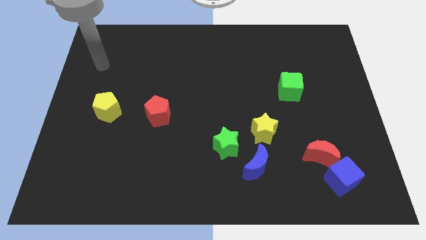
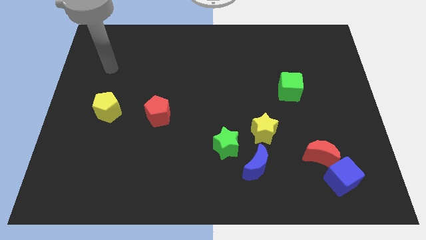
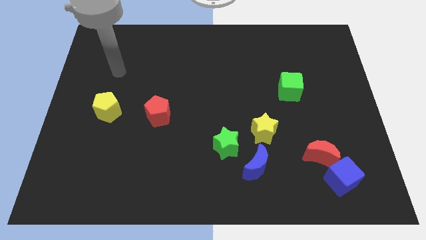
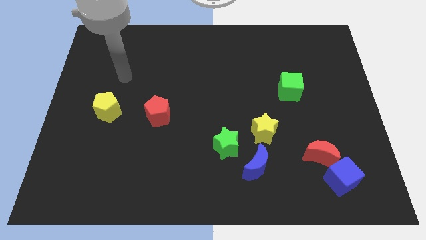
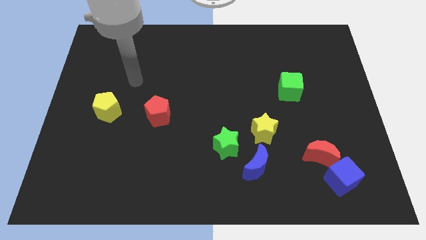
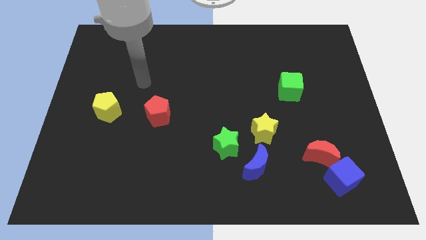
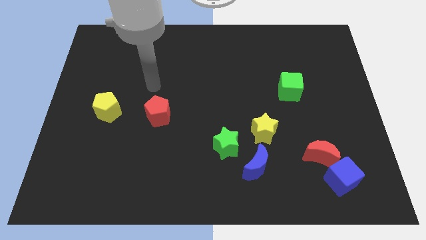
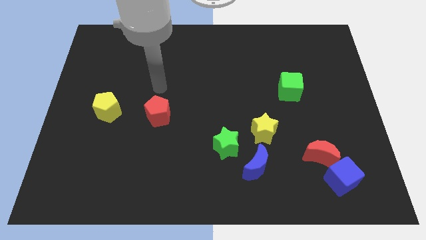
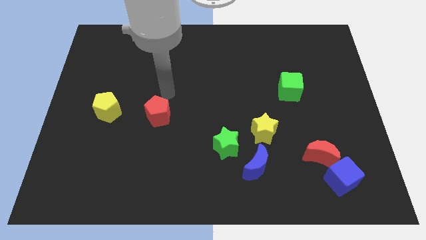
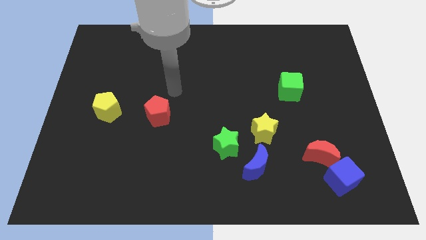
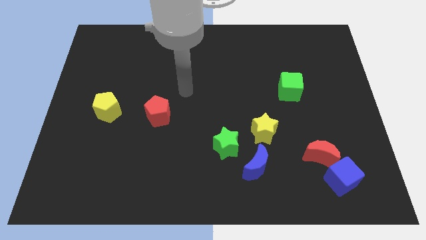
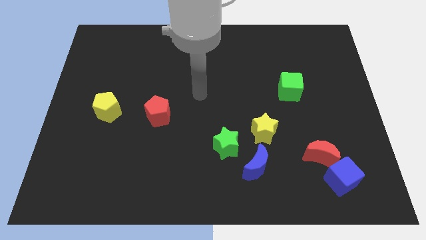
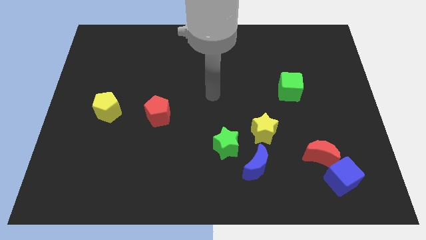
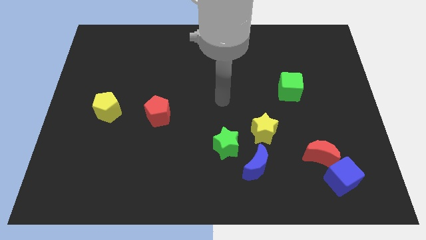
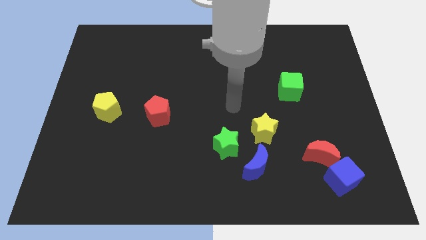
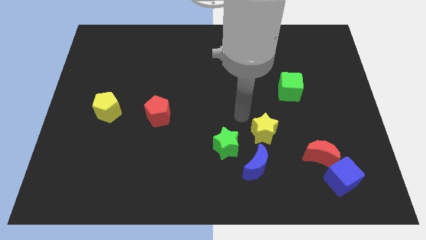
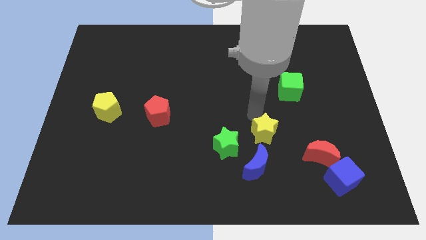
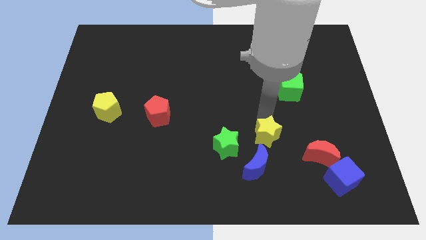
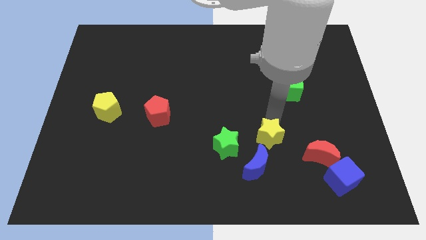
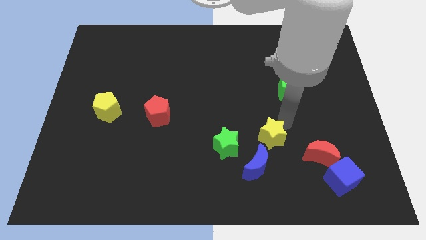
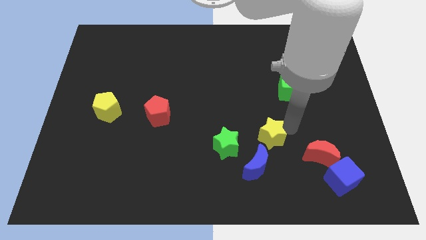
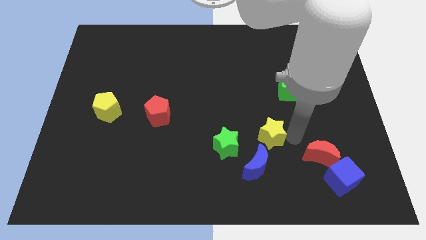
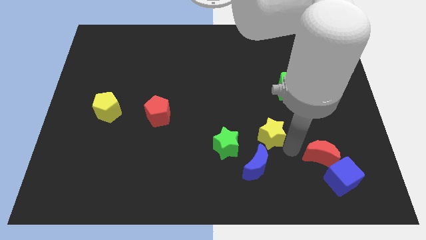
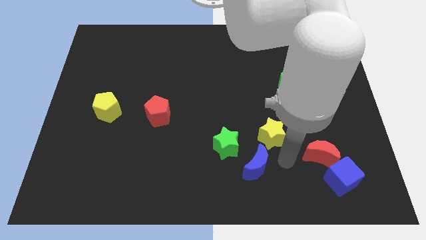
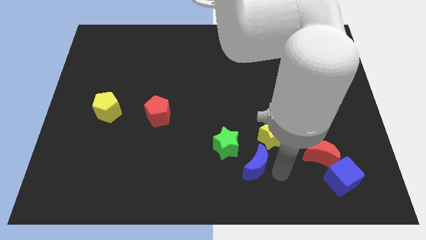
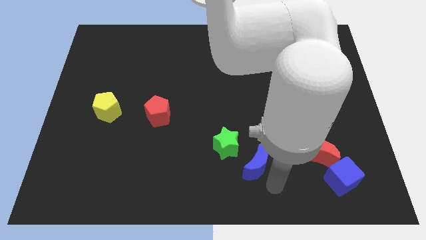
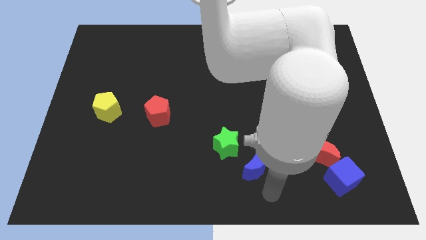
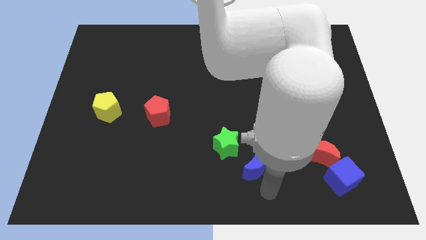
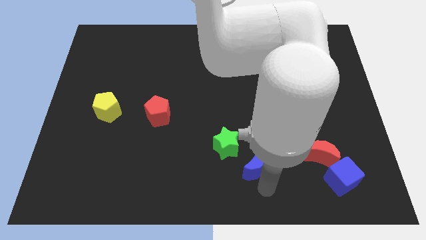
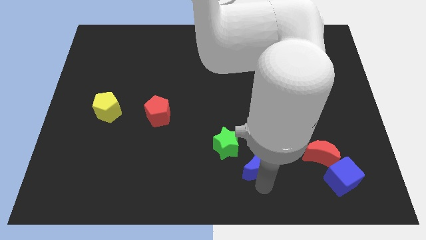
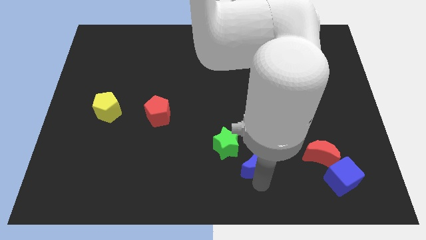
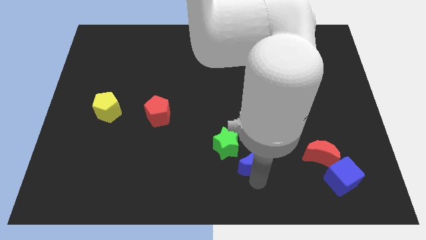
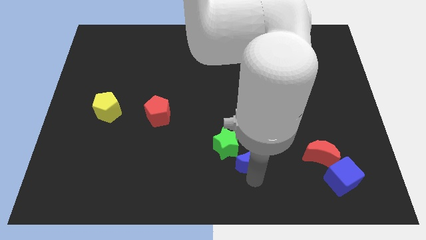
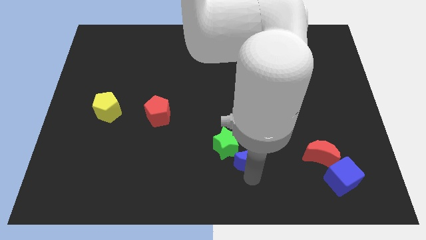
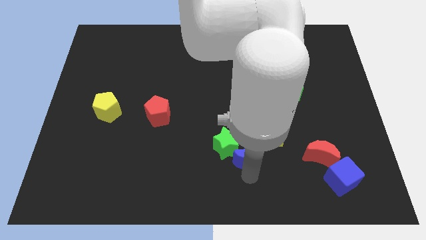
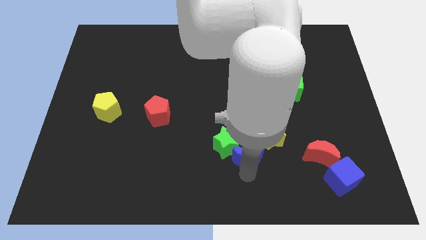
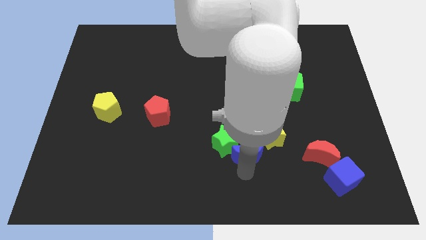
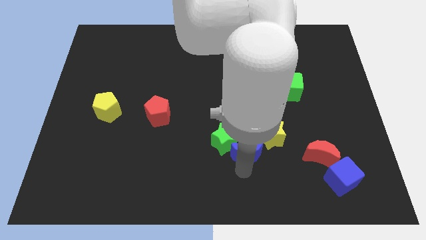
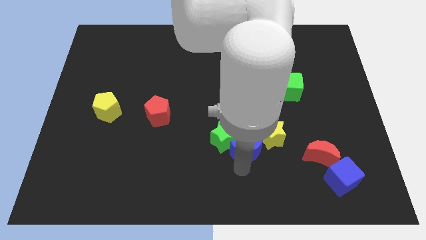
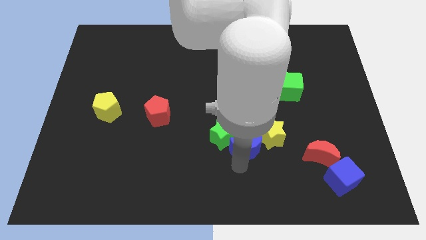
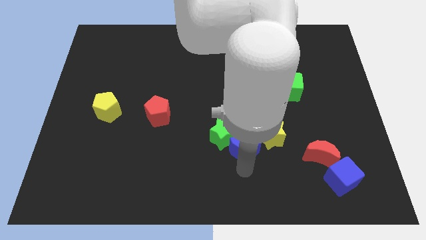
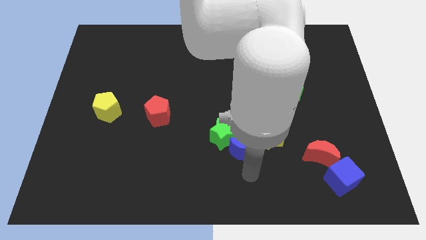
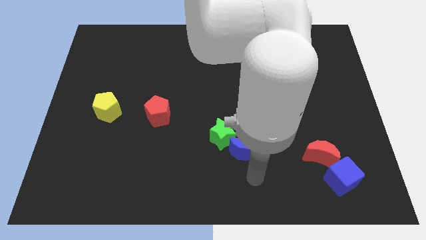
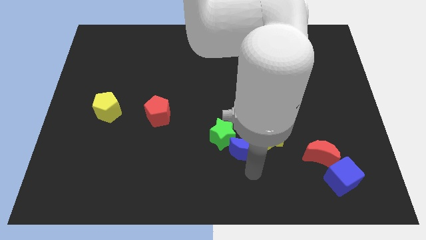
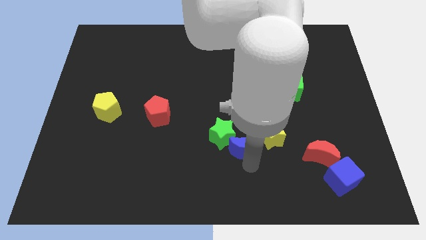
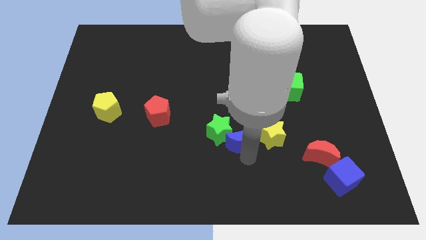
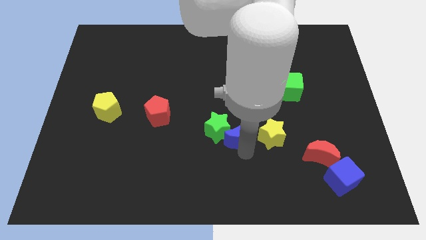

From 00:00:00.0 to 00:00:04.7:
push the blue moon slightly upwards and then to the left

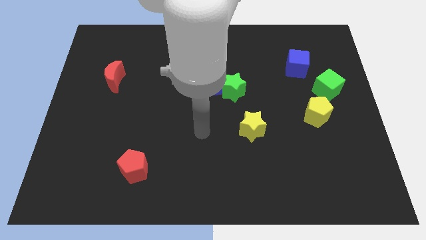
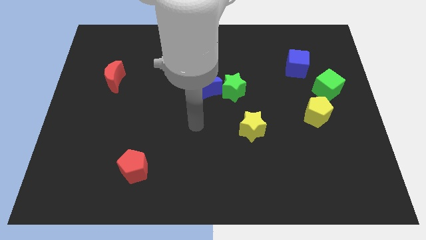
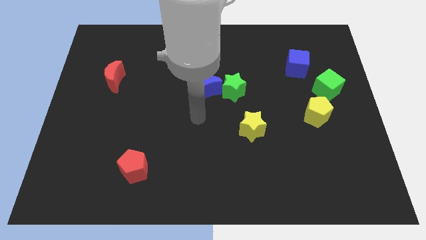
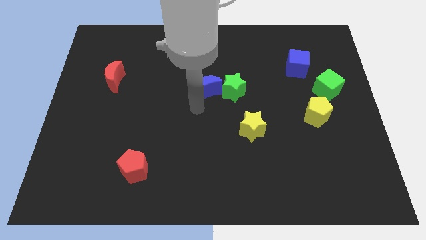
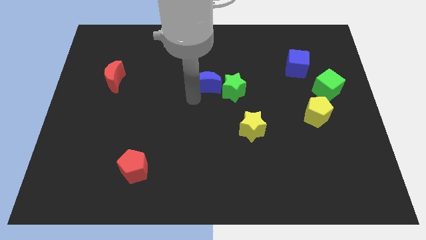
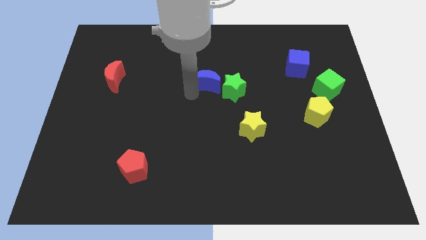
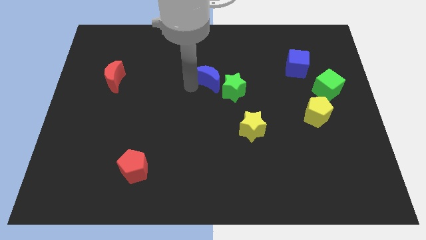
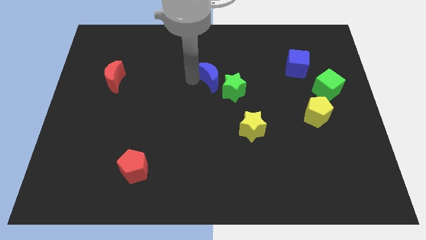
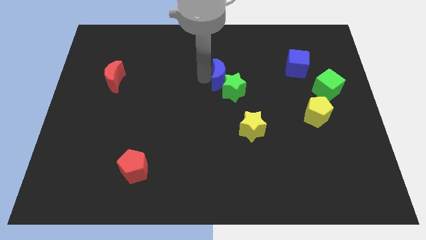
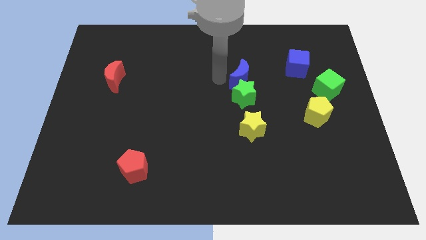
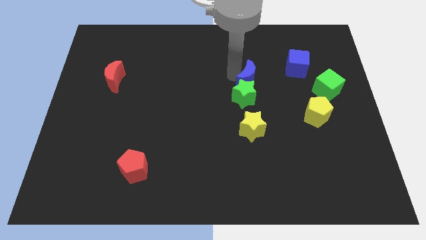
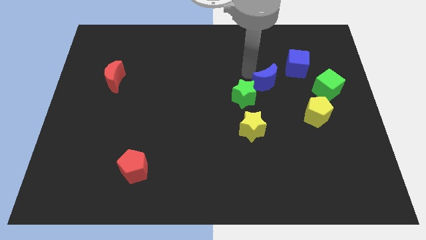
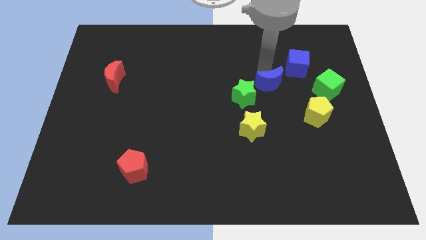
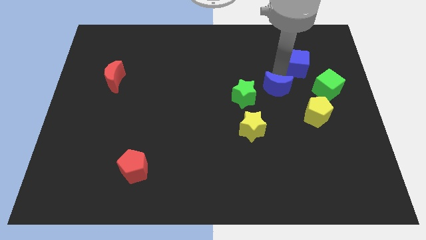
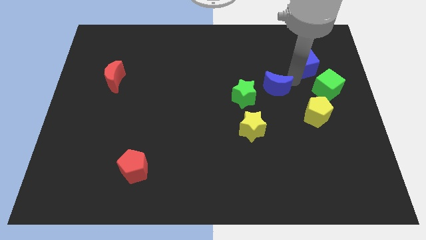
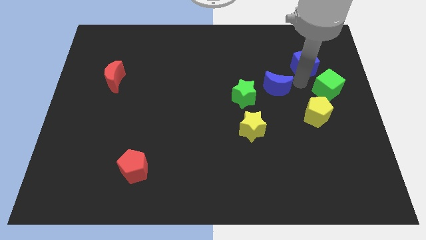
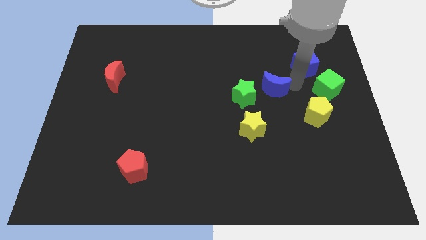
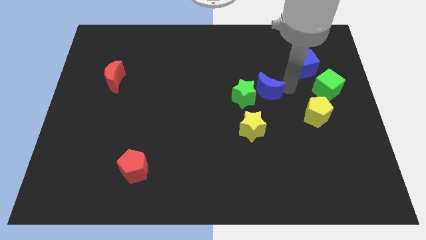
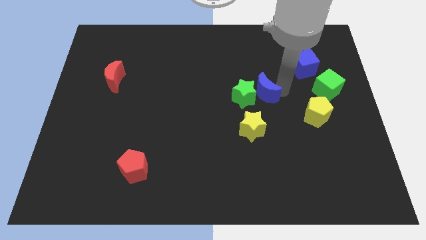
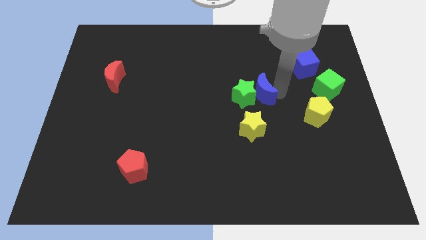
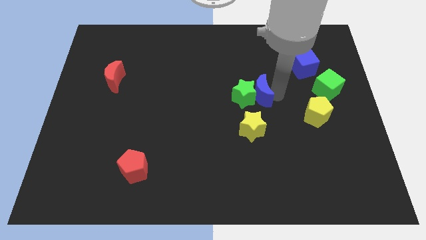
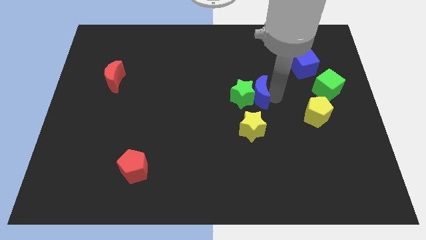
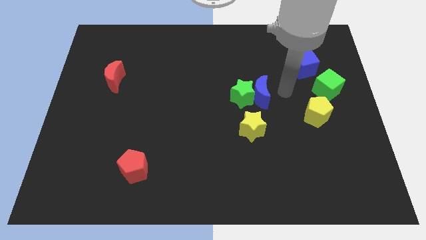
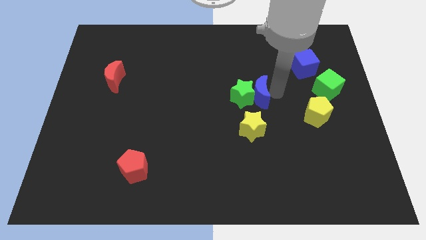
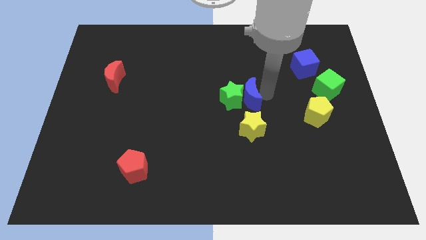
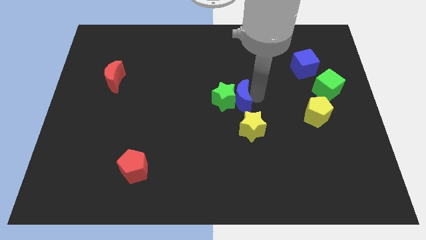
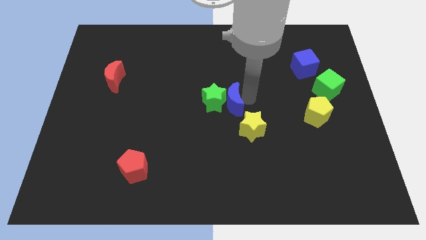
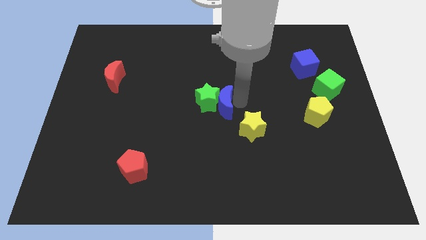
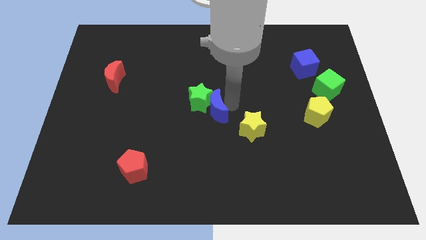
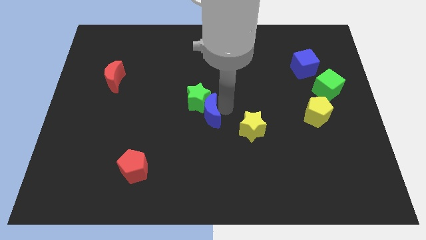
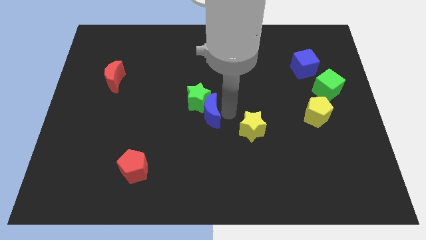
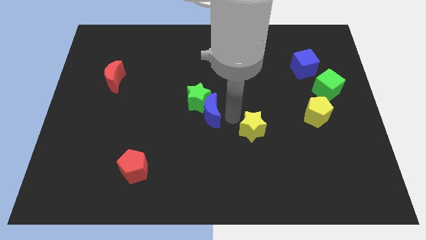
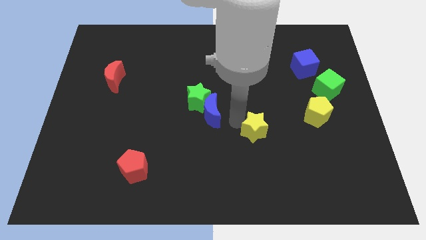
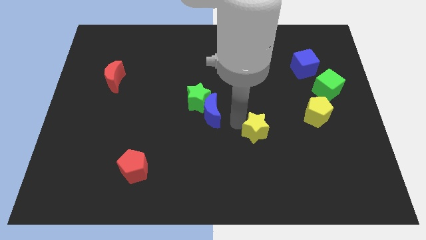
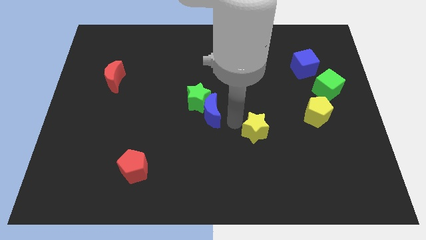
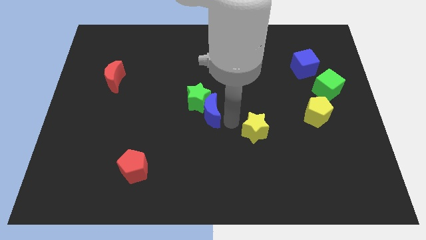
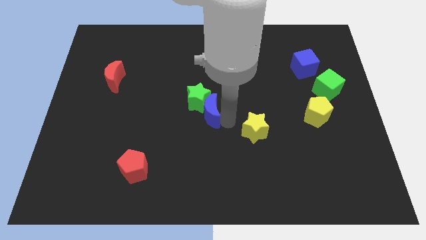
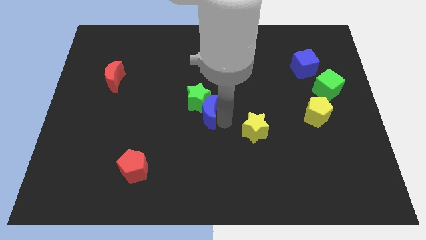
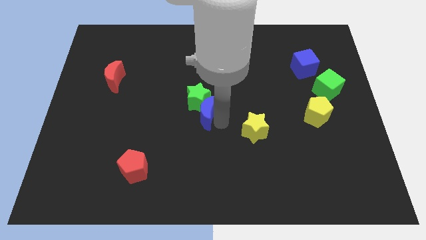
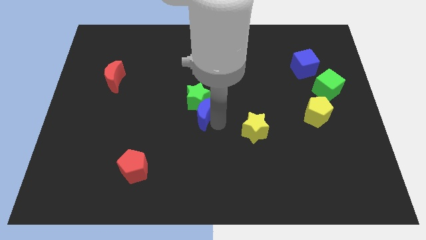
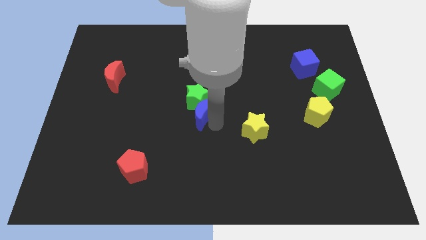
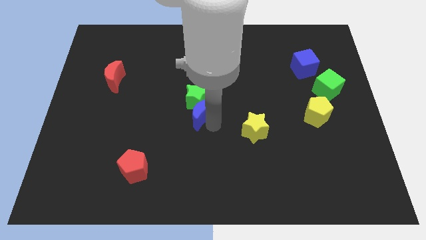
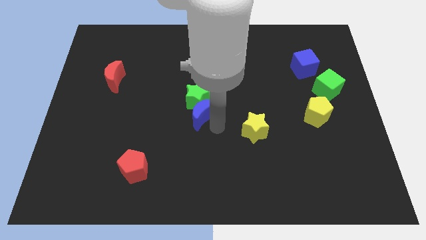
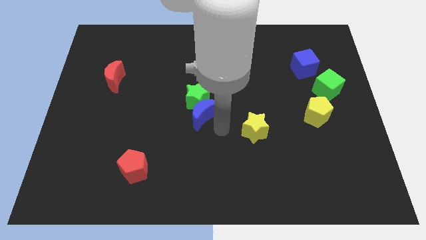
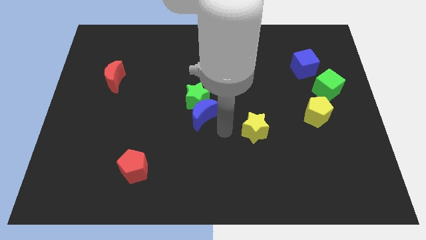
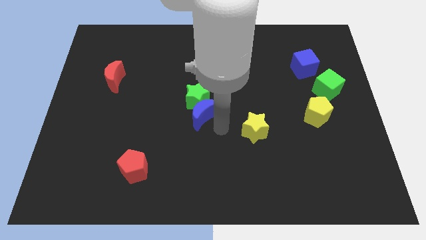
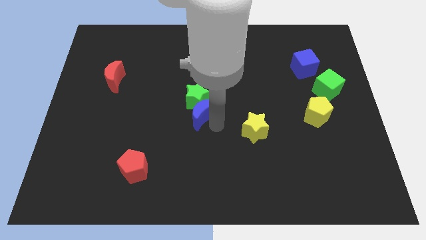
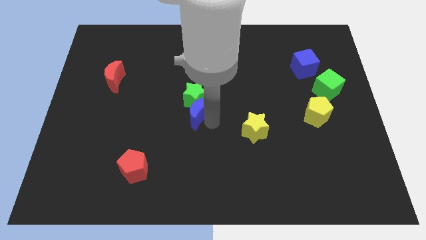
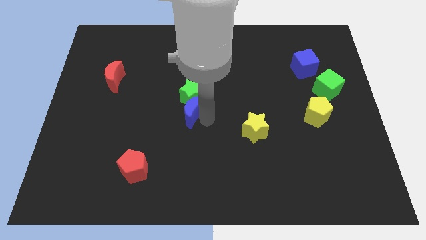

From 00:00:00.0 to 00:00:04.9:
slightly slide the blue moon downwards and then to the left
